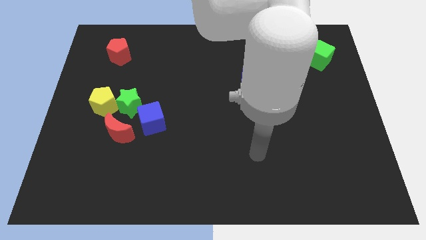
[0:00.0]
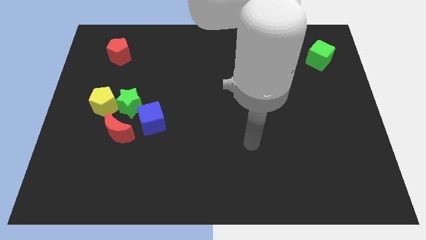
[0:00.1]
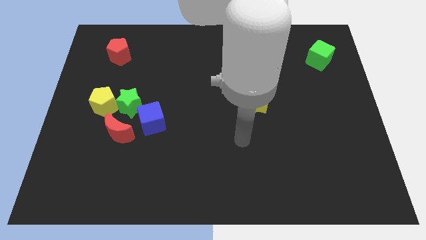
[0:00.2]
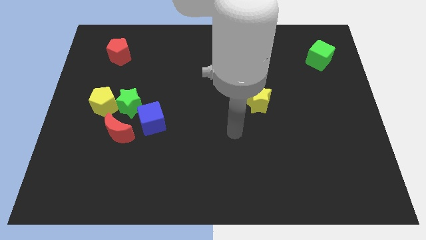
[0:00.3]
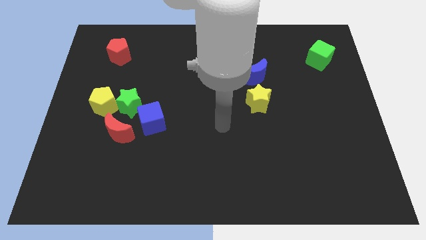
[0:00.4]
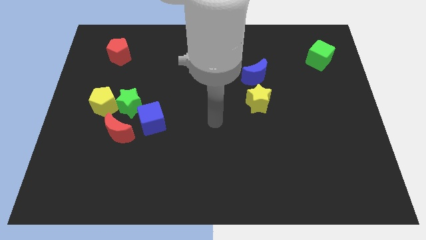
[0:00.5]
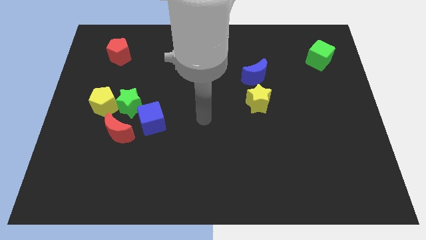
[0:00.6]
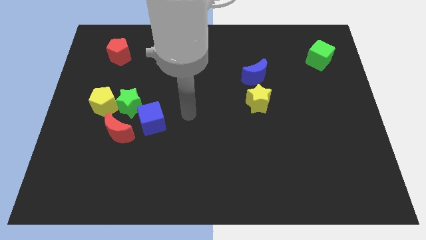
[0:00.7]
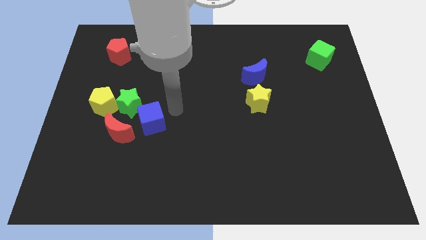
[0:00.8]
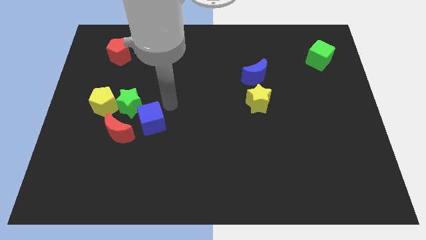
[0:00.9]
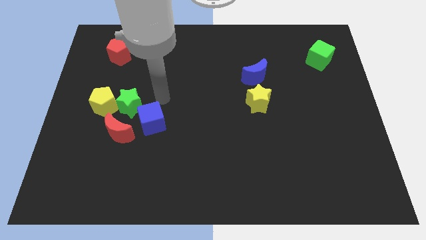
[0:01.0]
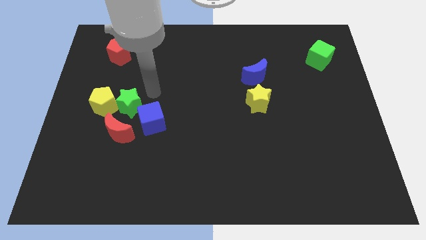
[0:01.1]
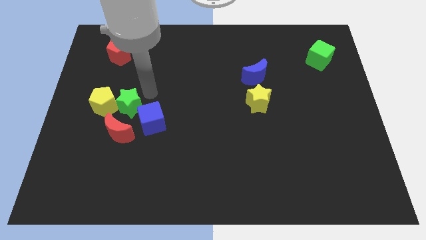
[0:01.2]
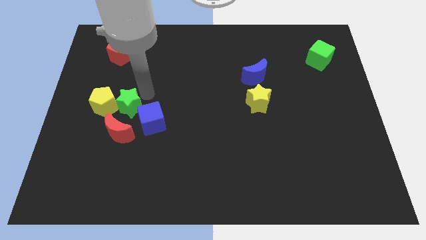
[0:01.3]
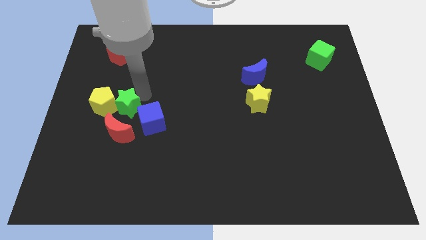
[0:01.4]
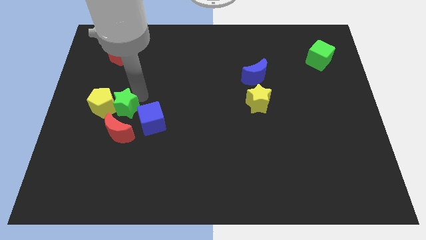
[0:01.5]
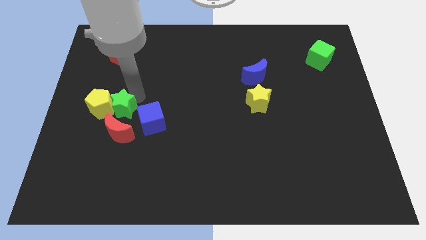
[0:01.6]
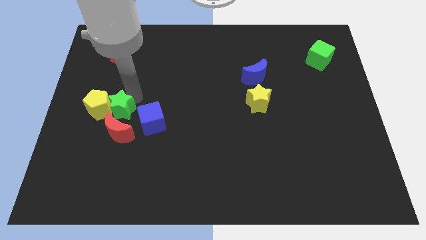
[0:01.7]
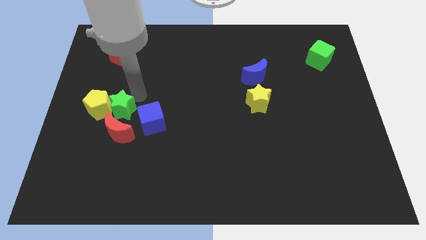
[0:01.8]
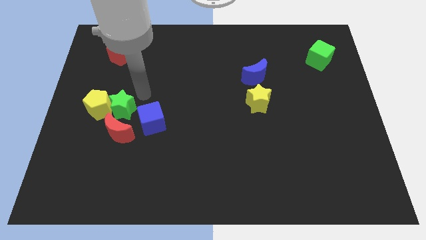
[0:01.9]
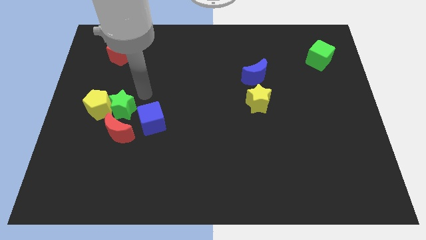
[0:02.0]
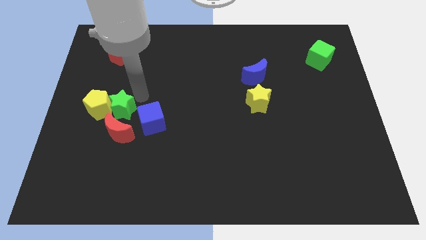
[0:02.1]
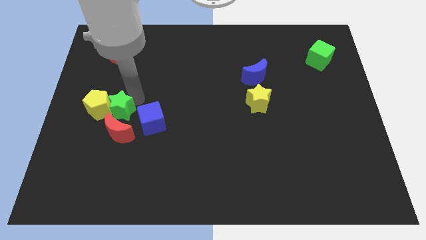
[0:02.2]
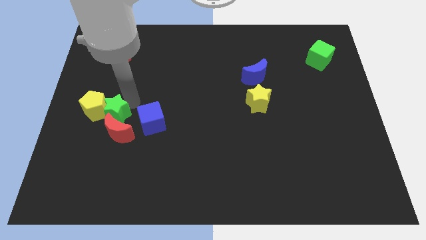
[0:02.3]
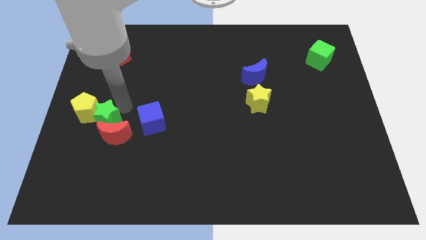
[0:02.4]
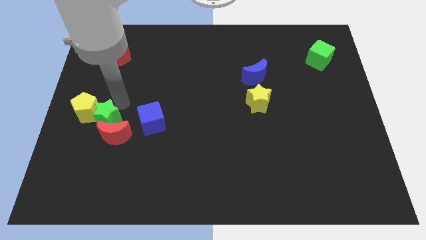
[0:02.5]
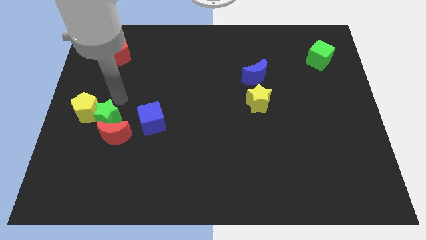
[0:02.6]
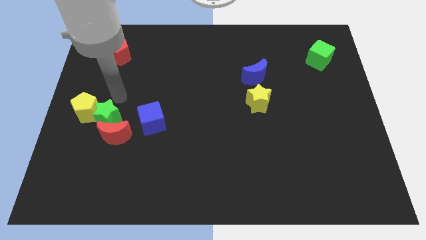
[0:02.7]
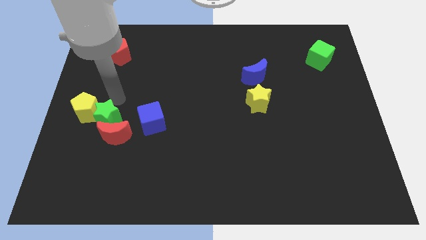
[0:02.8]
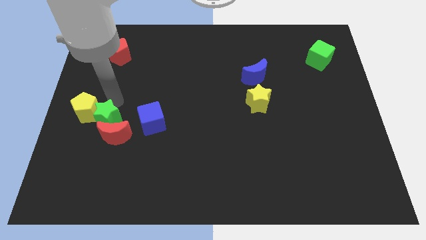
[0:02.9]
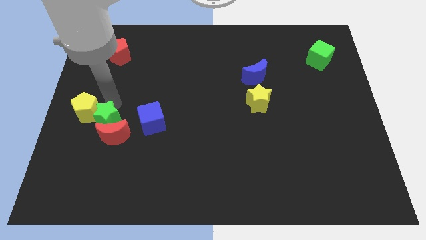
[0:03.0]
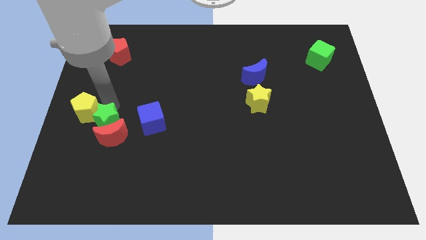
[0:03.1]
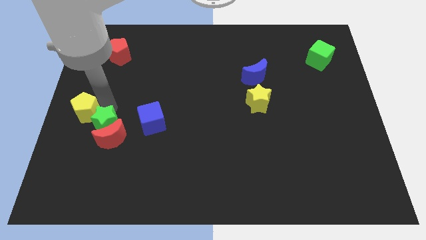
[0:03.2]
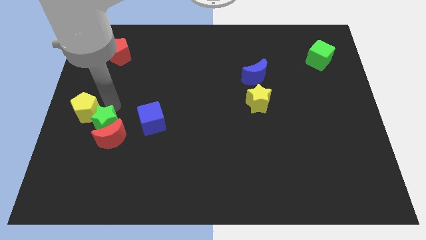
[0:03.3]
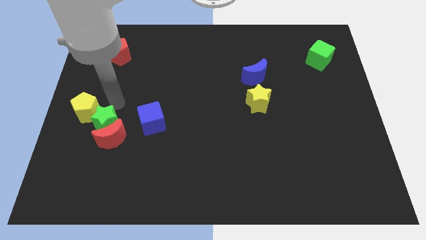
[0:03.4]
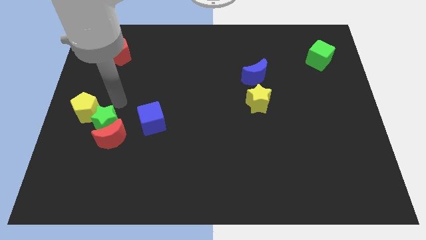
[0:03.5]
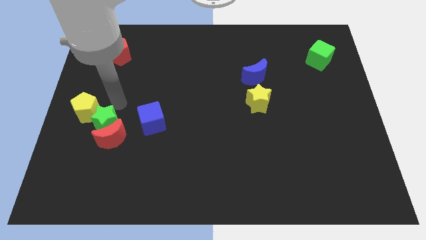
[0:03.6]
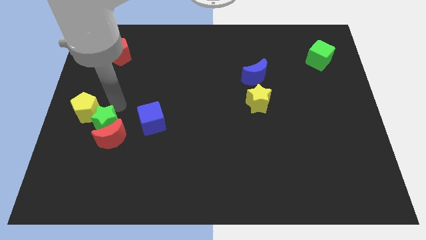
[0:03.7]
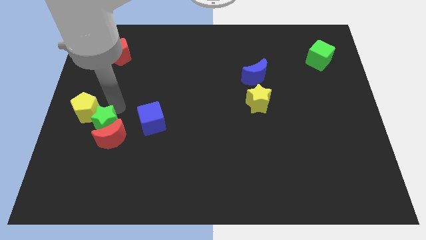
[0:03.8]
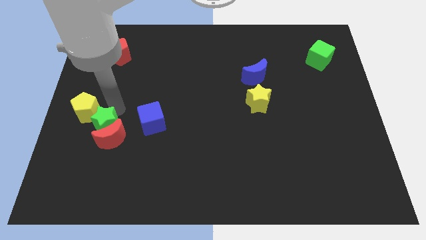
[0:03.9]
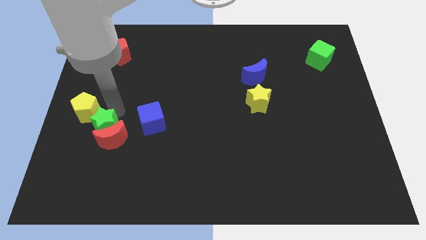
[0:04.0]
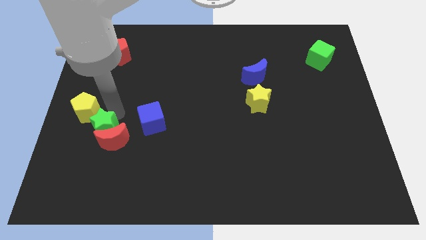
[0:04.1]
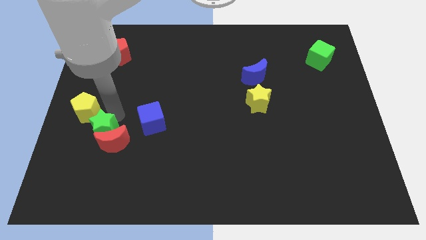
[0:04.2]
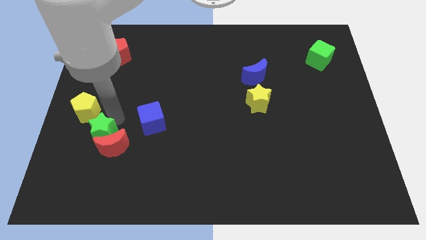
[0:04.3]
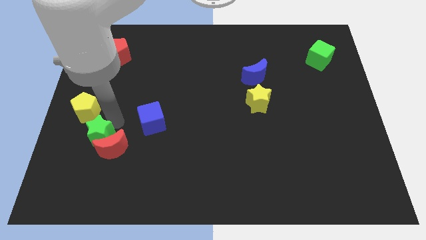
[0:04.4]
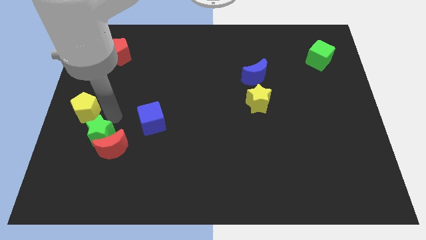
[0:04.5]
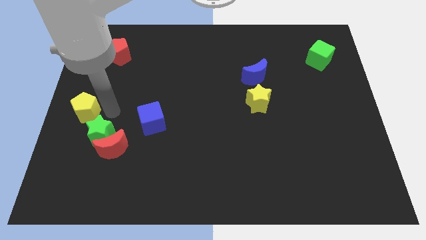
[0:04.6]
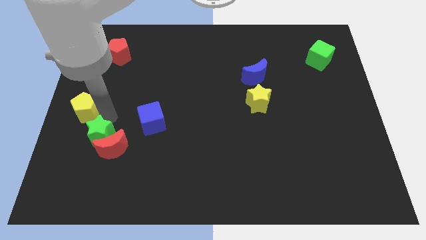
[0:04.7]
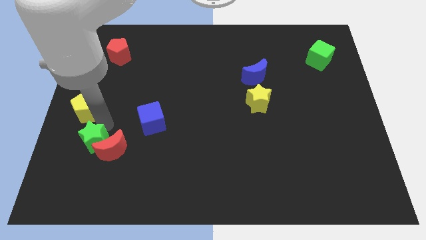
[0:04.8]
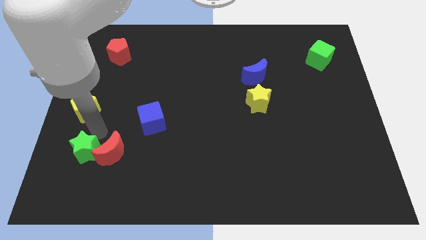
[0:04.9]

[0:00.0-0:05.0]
slide the green star diagonally down and to the left of the red moon

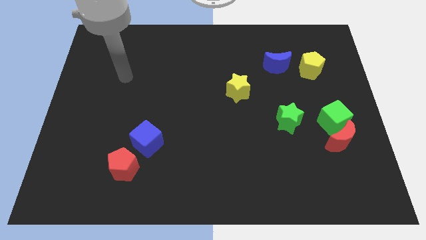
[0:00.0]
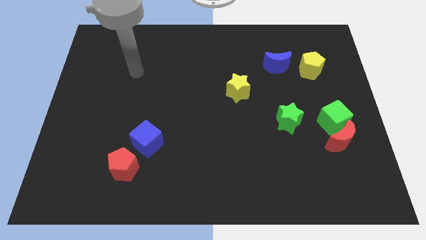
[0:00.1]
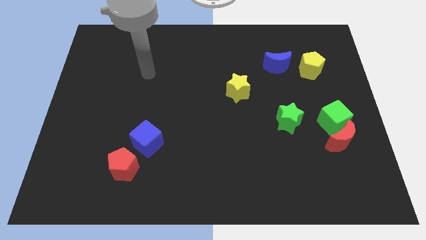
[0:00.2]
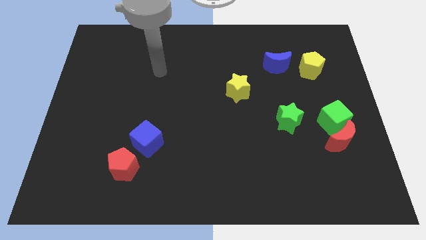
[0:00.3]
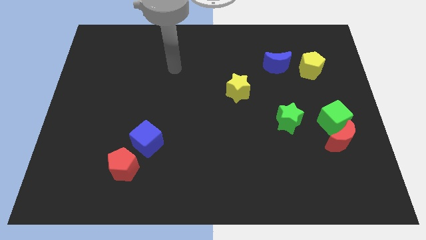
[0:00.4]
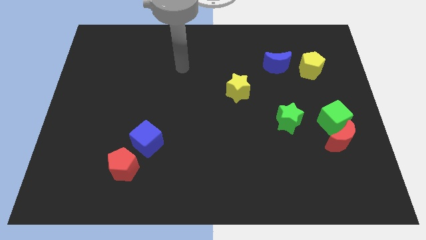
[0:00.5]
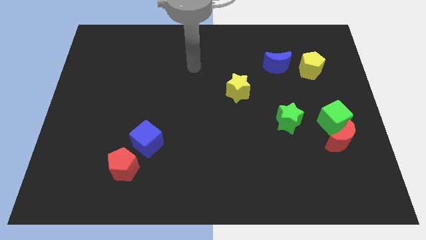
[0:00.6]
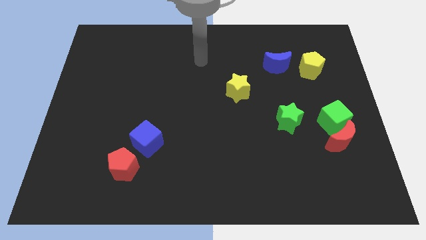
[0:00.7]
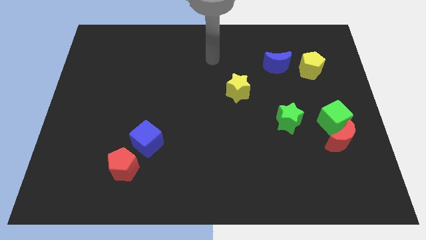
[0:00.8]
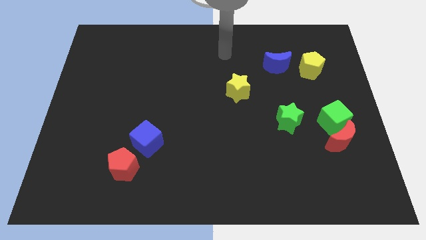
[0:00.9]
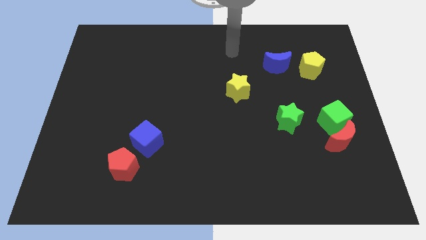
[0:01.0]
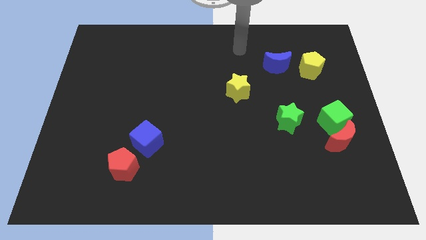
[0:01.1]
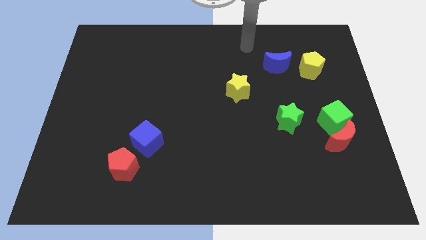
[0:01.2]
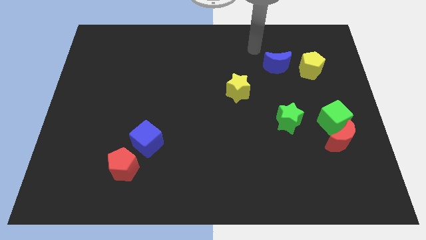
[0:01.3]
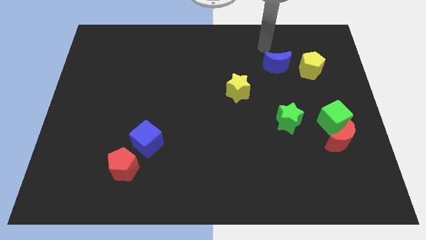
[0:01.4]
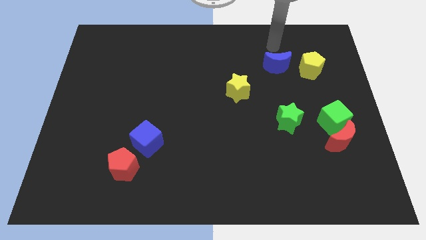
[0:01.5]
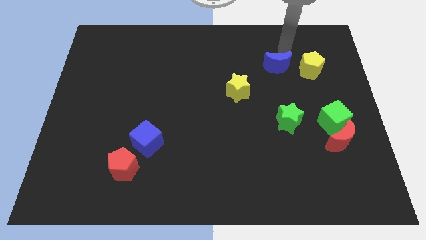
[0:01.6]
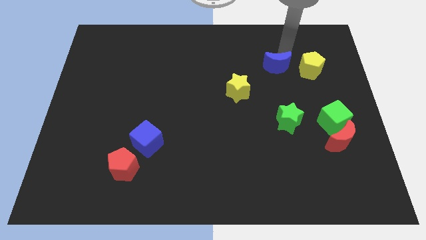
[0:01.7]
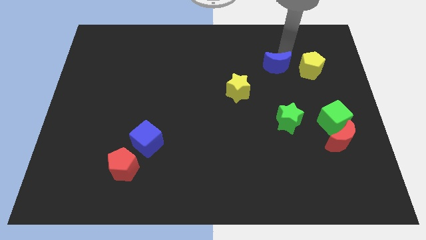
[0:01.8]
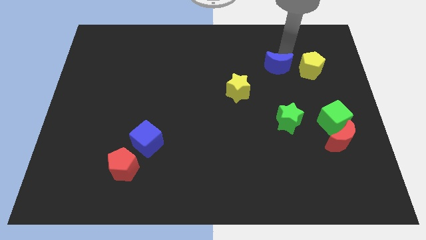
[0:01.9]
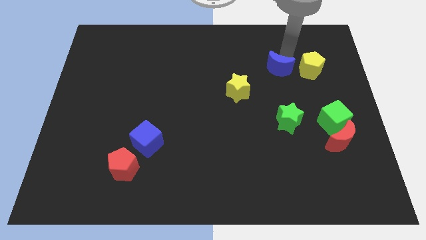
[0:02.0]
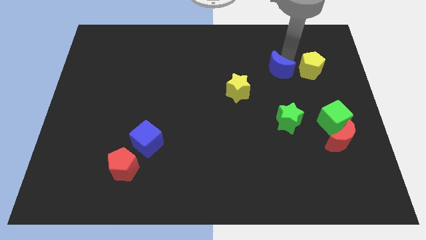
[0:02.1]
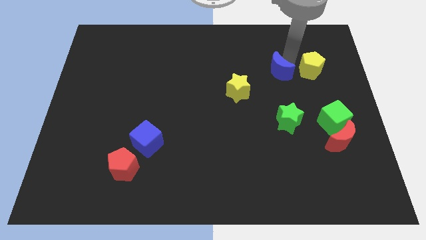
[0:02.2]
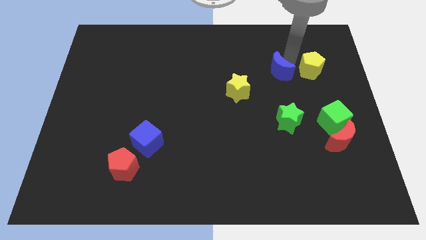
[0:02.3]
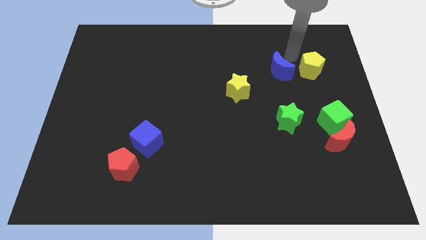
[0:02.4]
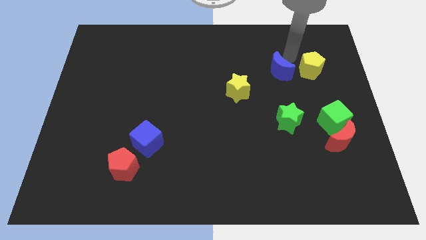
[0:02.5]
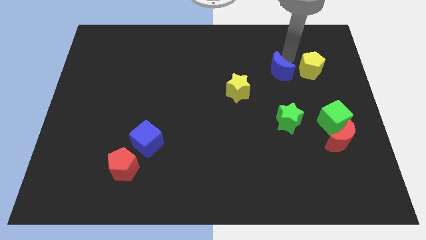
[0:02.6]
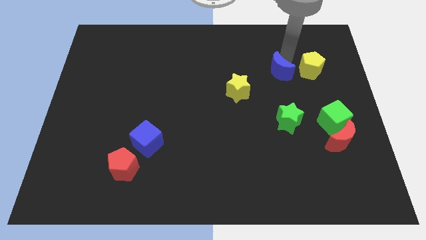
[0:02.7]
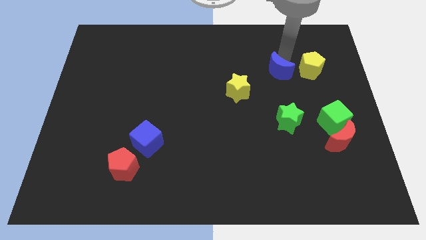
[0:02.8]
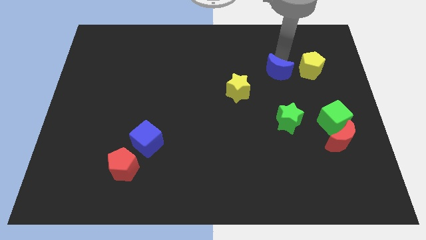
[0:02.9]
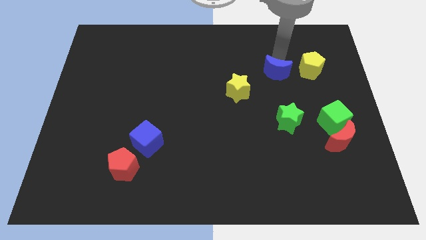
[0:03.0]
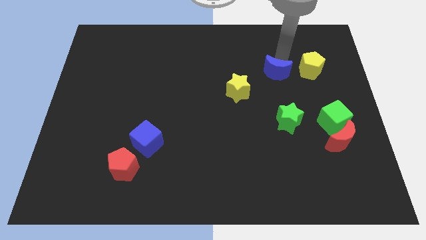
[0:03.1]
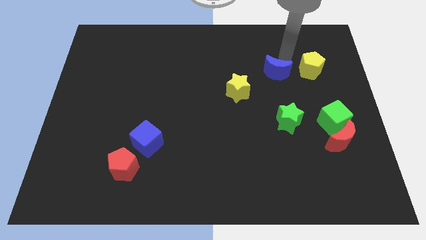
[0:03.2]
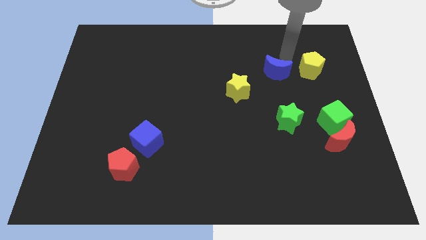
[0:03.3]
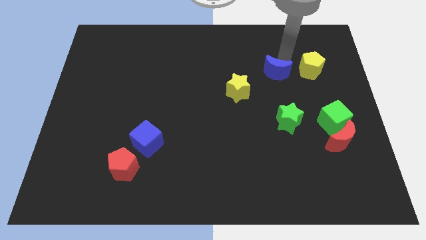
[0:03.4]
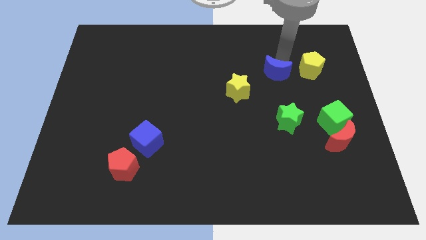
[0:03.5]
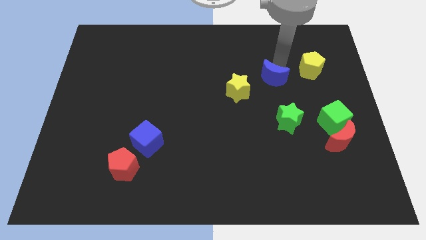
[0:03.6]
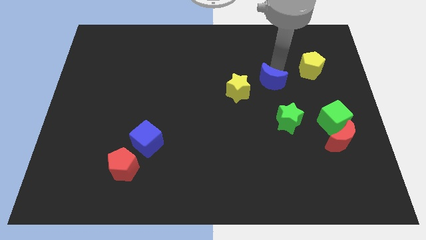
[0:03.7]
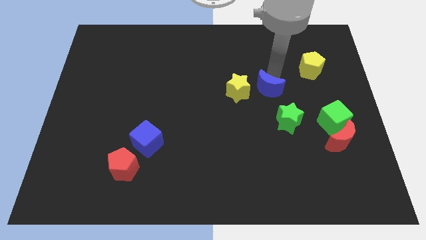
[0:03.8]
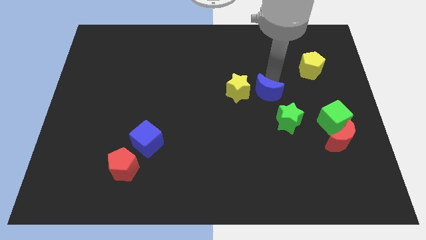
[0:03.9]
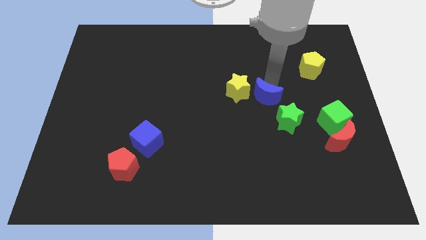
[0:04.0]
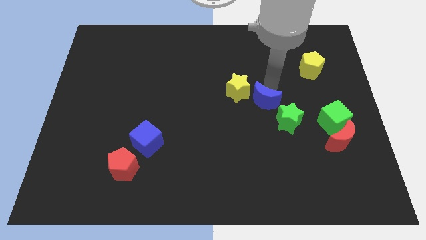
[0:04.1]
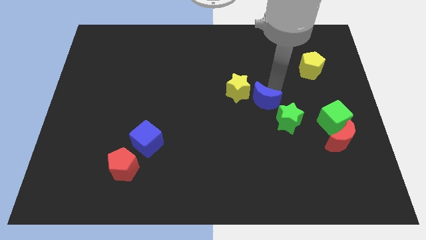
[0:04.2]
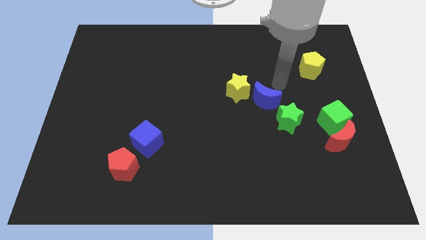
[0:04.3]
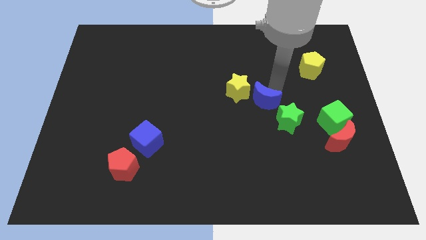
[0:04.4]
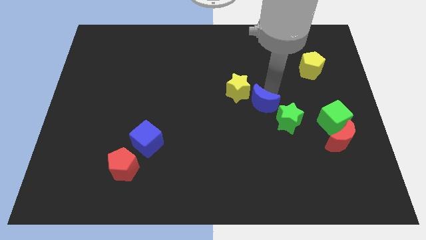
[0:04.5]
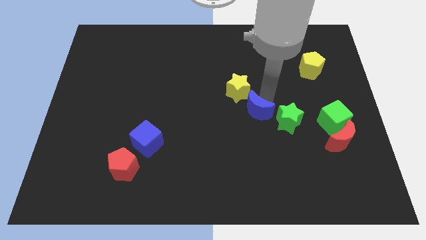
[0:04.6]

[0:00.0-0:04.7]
slide the blue moon below the yellow star
